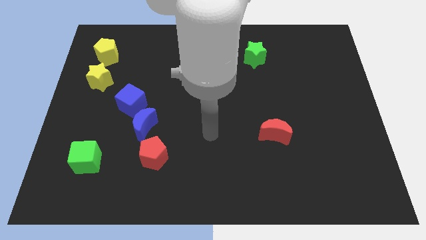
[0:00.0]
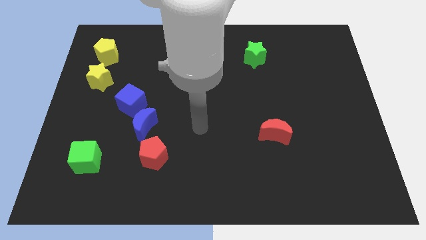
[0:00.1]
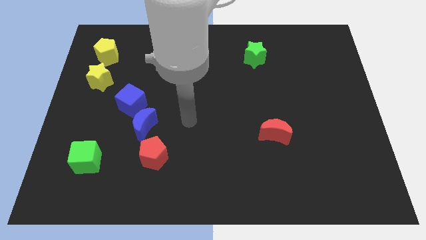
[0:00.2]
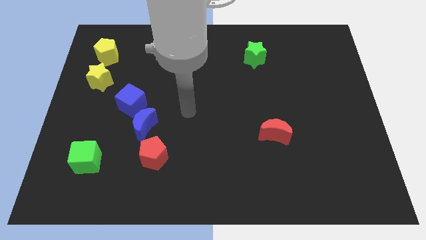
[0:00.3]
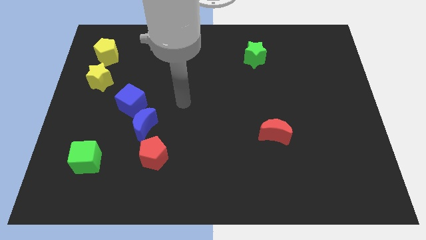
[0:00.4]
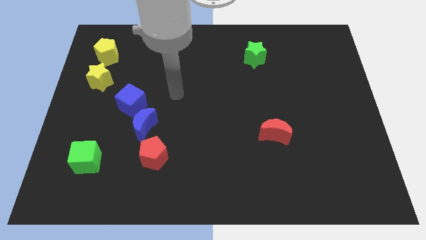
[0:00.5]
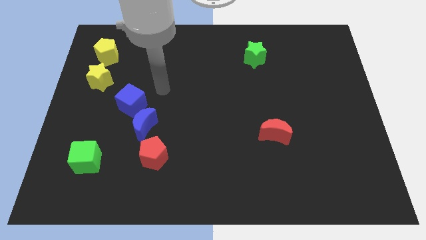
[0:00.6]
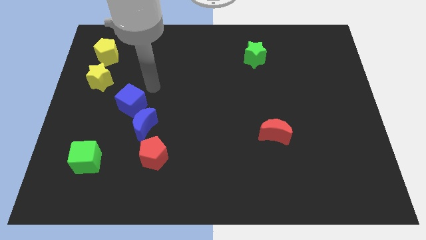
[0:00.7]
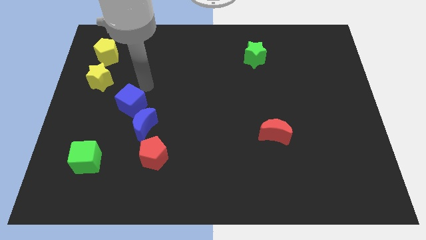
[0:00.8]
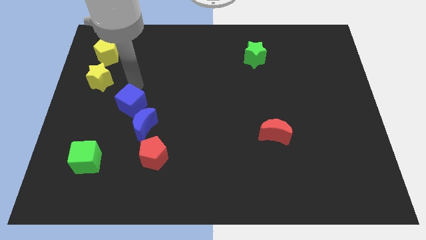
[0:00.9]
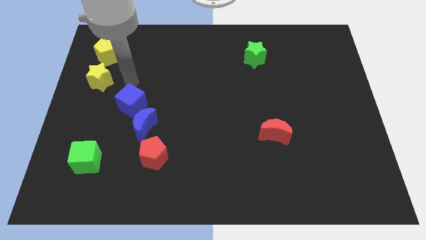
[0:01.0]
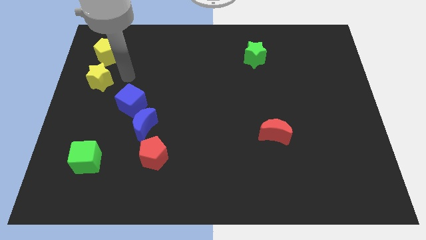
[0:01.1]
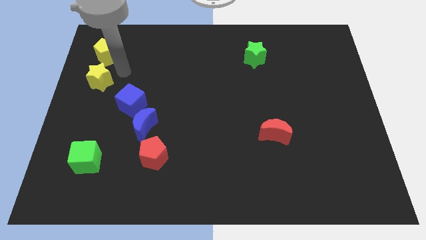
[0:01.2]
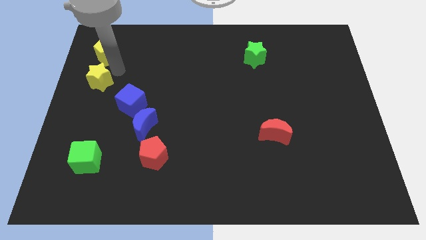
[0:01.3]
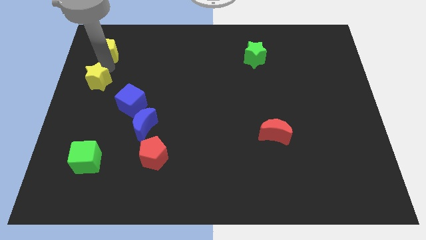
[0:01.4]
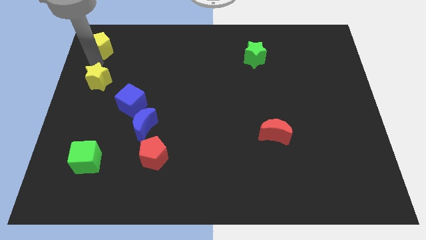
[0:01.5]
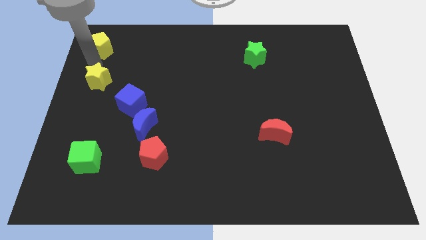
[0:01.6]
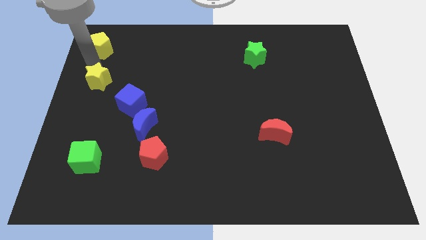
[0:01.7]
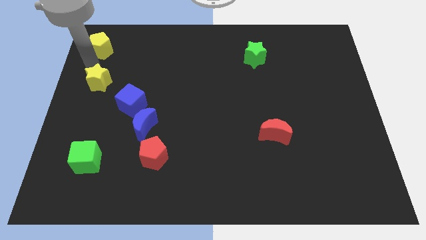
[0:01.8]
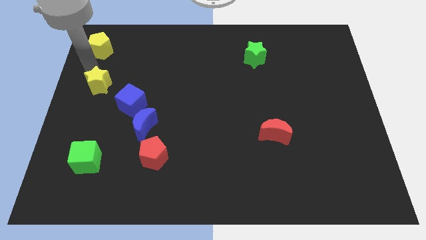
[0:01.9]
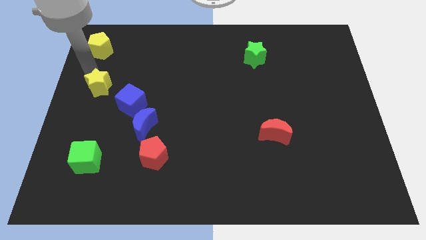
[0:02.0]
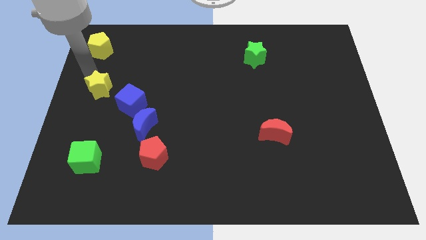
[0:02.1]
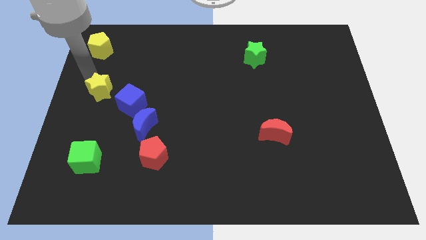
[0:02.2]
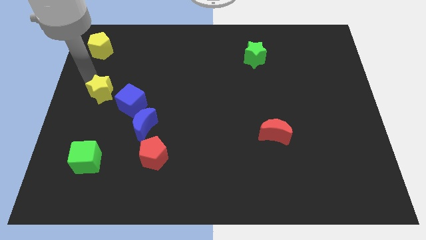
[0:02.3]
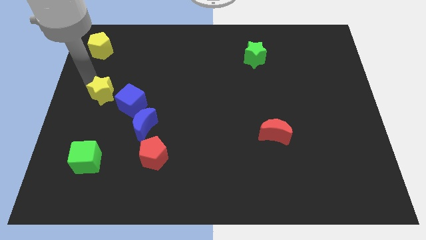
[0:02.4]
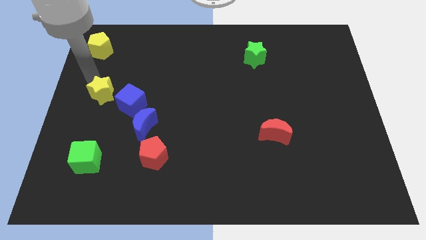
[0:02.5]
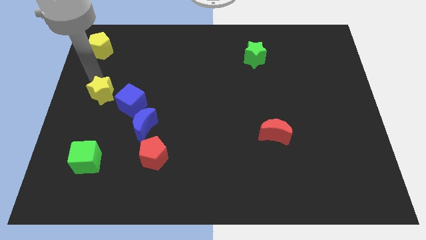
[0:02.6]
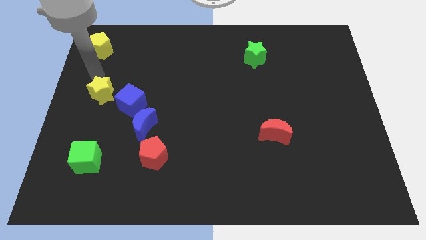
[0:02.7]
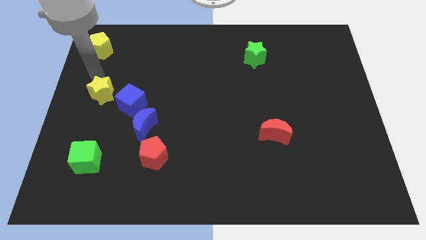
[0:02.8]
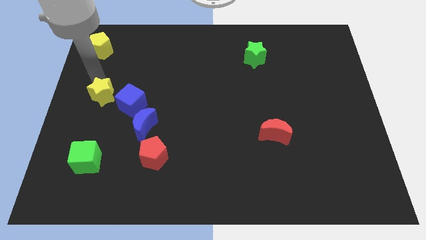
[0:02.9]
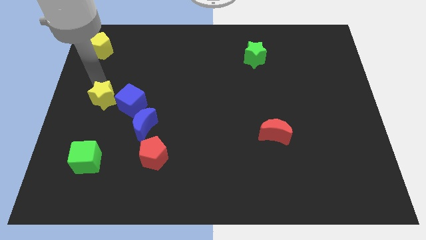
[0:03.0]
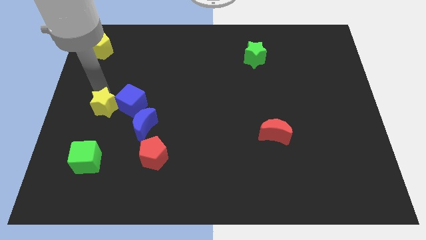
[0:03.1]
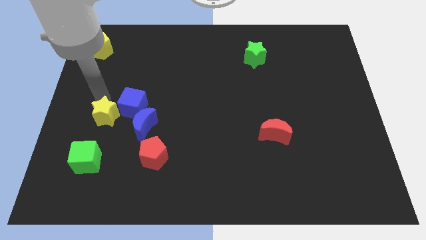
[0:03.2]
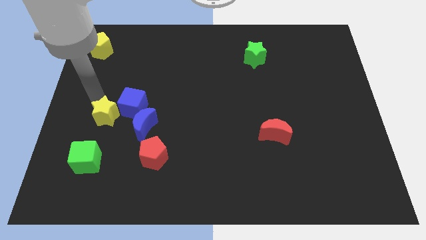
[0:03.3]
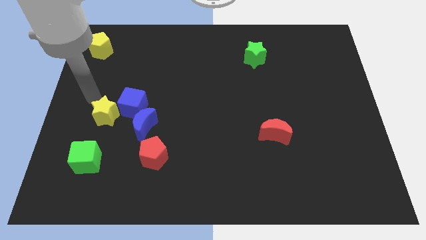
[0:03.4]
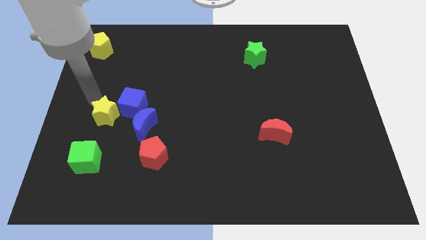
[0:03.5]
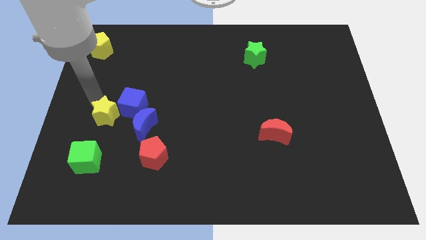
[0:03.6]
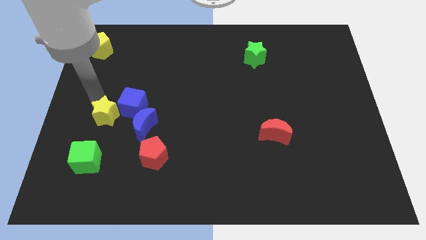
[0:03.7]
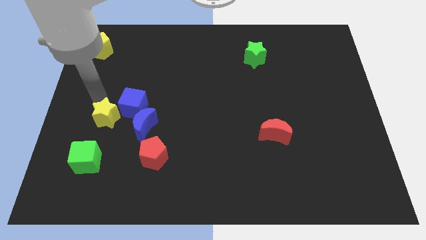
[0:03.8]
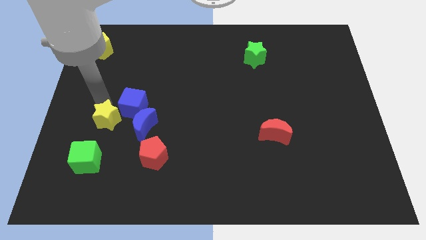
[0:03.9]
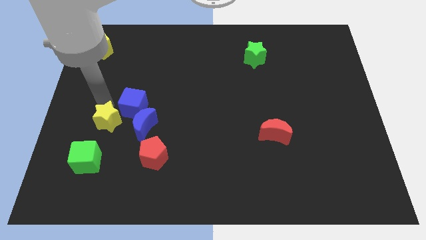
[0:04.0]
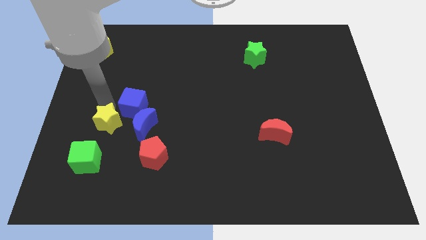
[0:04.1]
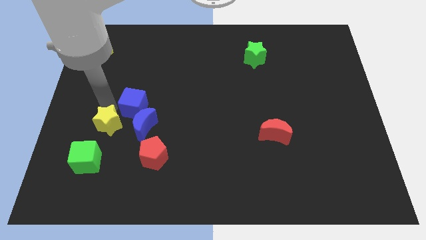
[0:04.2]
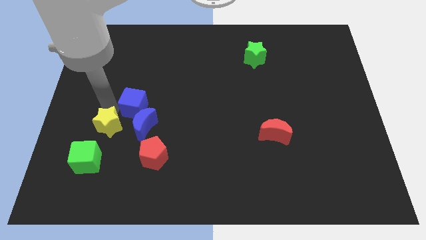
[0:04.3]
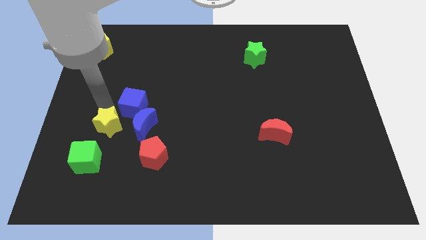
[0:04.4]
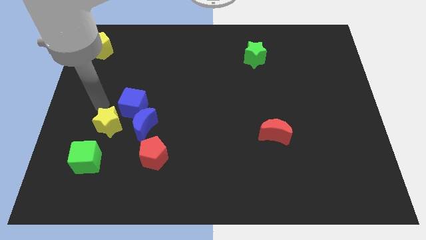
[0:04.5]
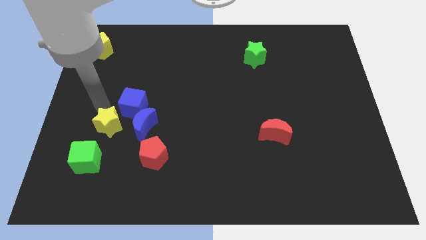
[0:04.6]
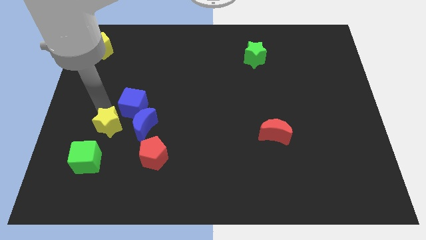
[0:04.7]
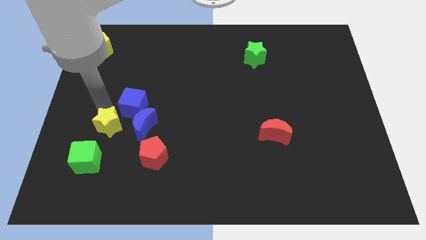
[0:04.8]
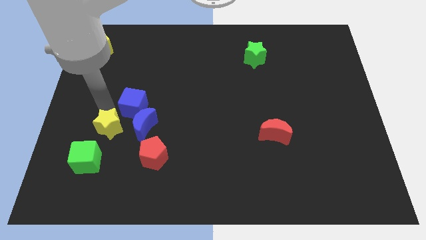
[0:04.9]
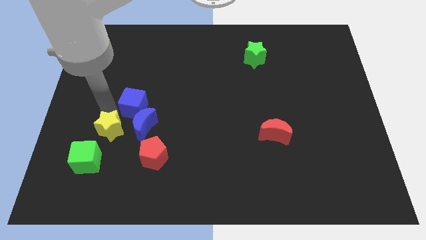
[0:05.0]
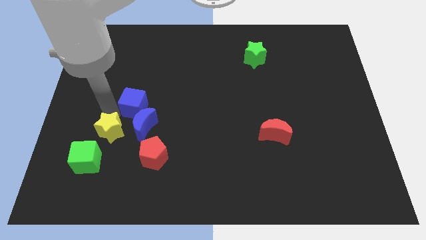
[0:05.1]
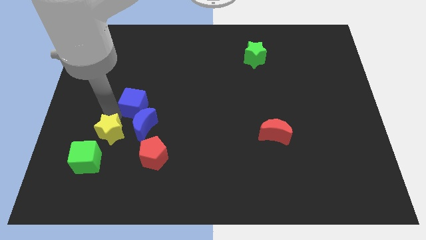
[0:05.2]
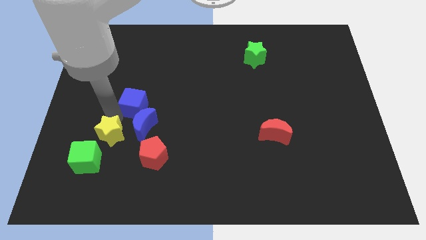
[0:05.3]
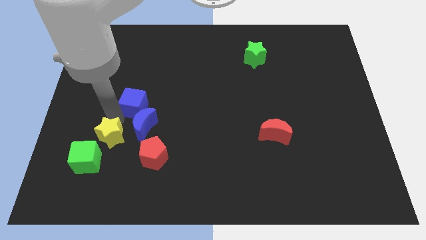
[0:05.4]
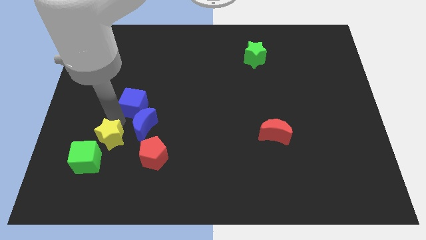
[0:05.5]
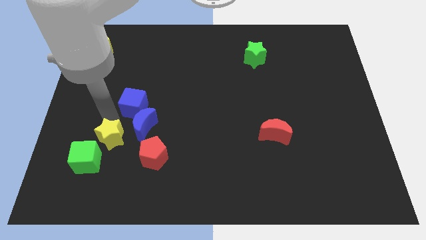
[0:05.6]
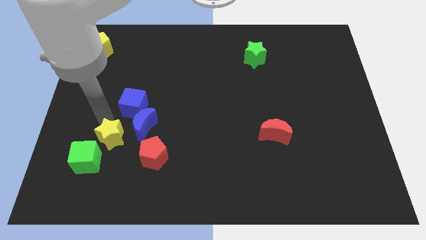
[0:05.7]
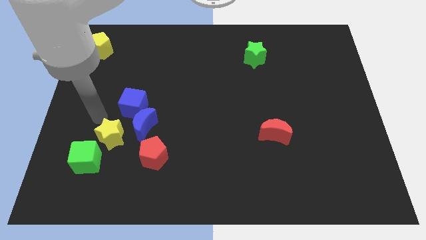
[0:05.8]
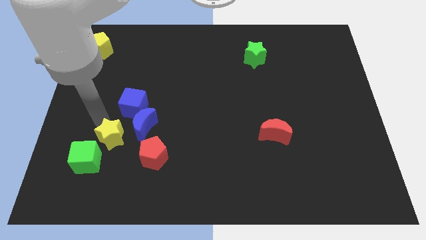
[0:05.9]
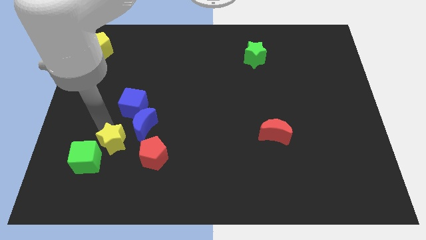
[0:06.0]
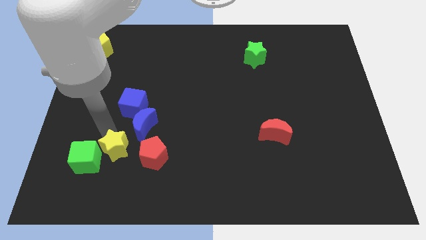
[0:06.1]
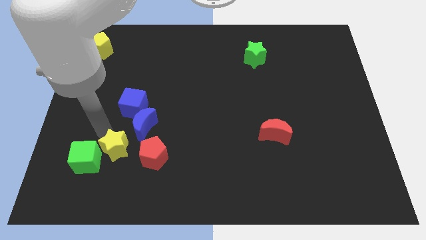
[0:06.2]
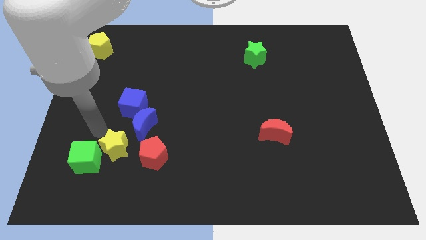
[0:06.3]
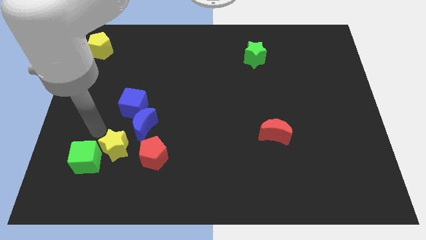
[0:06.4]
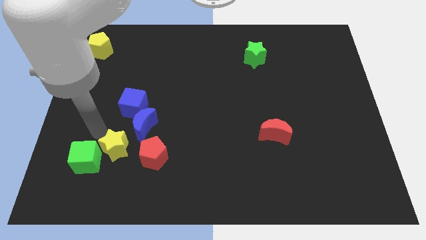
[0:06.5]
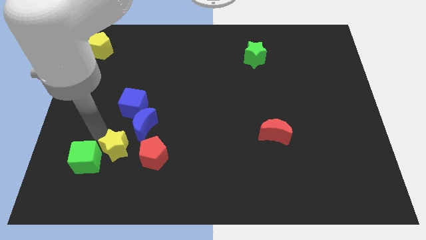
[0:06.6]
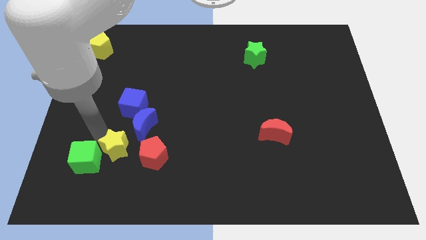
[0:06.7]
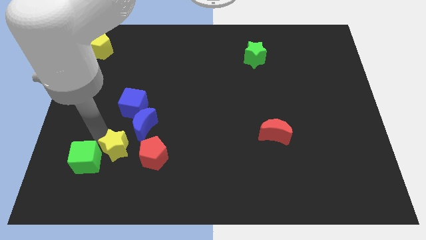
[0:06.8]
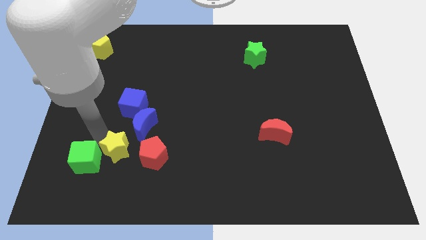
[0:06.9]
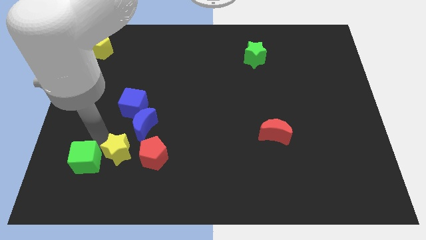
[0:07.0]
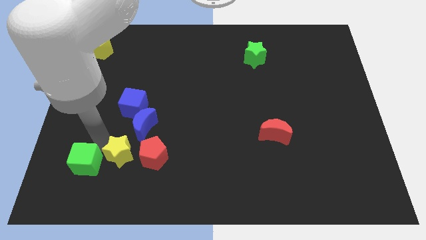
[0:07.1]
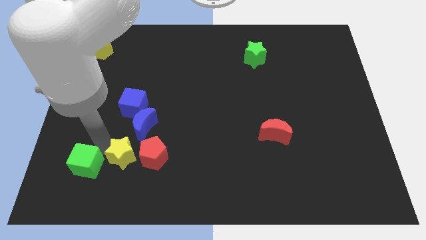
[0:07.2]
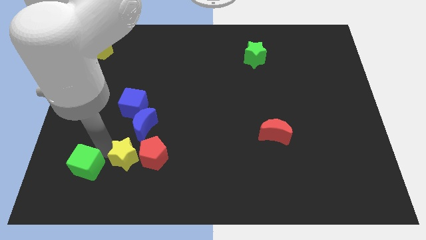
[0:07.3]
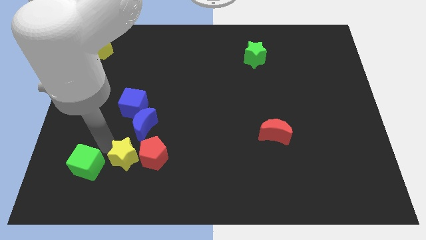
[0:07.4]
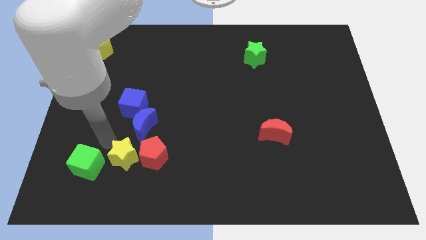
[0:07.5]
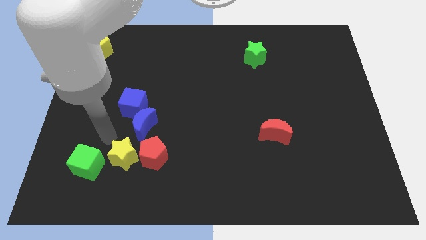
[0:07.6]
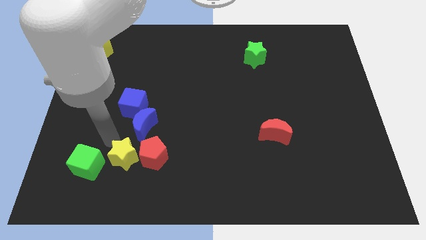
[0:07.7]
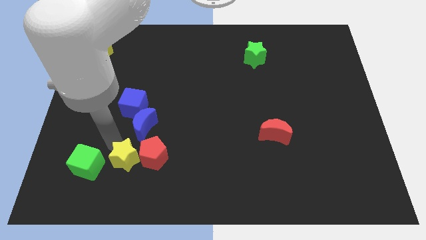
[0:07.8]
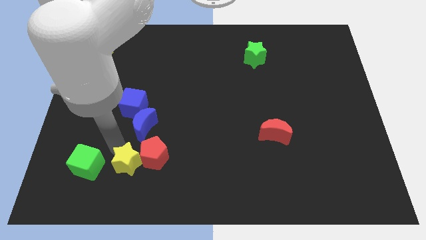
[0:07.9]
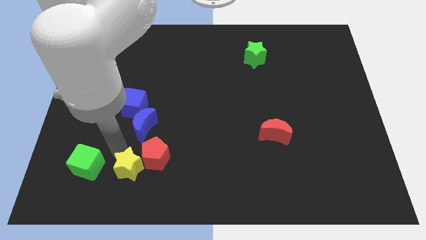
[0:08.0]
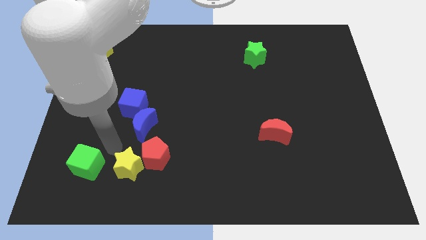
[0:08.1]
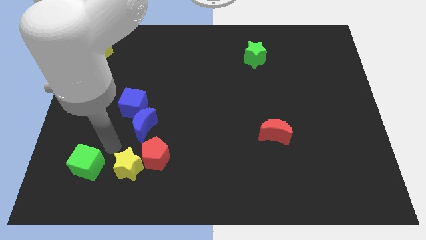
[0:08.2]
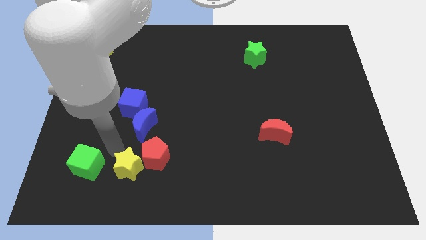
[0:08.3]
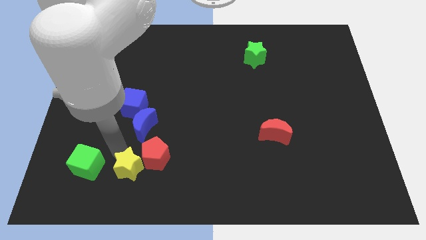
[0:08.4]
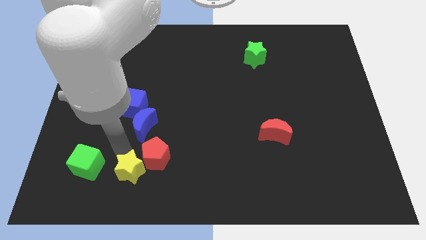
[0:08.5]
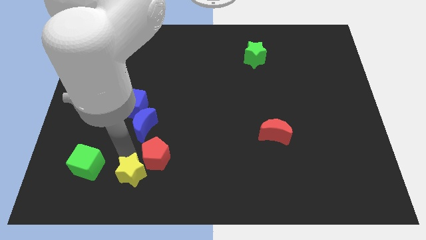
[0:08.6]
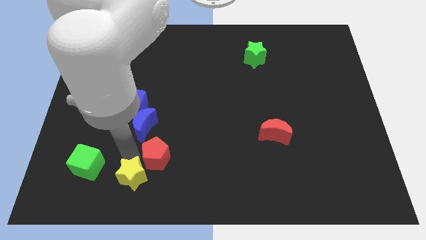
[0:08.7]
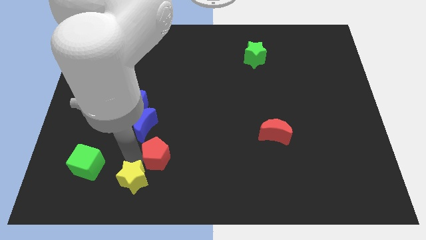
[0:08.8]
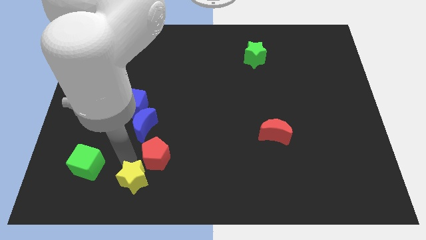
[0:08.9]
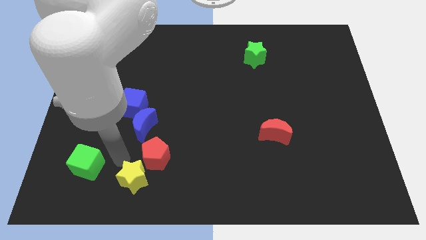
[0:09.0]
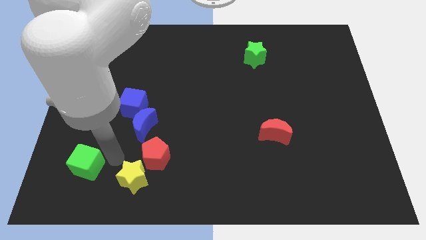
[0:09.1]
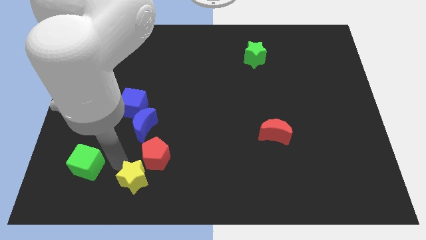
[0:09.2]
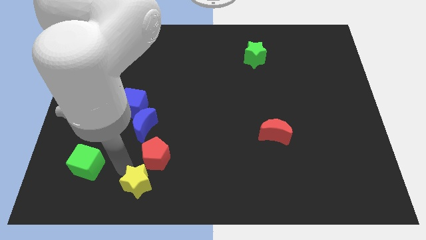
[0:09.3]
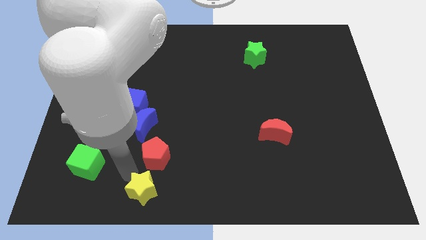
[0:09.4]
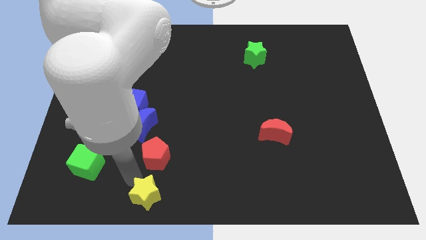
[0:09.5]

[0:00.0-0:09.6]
slide the yellow star to the bottom
